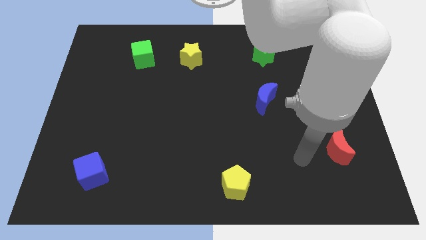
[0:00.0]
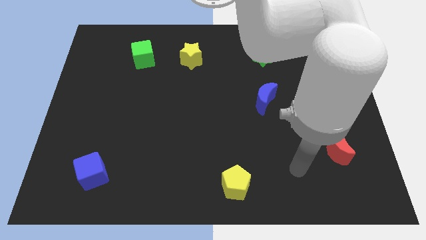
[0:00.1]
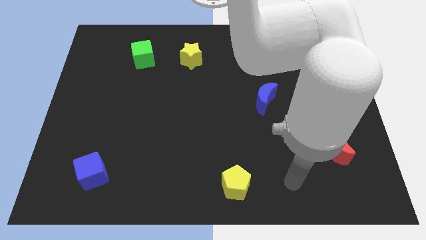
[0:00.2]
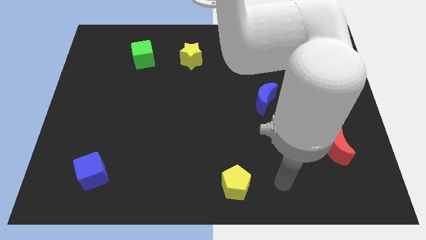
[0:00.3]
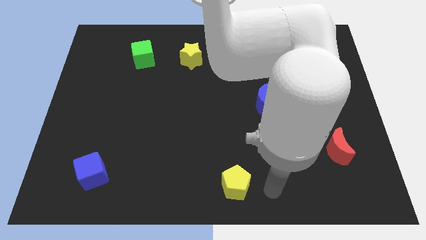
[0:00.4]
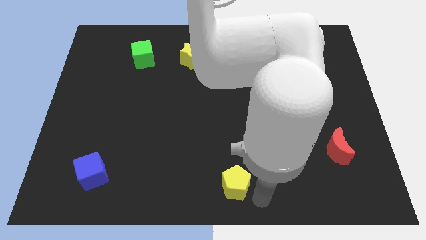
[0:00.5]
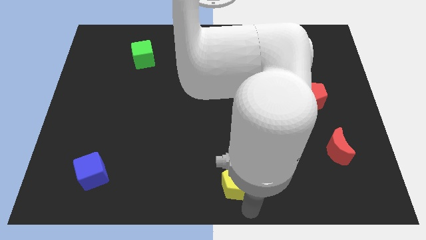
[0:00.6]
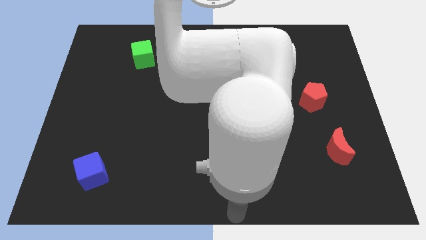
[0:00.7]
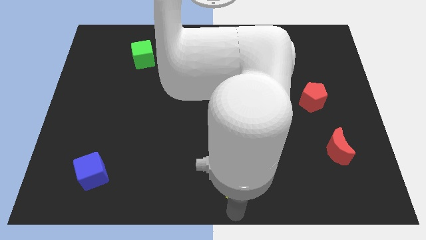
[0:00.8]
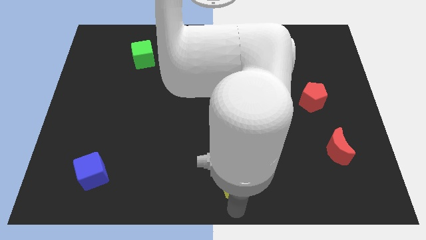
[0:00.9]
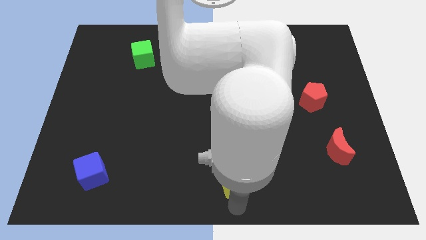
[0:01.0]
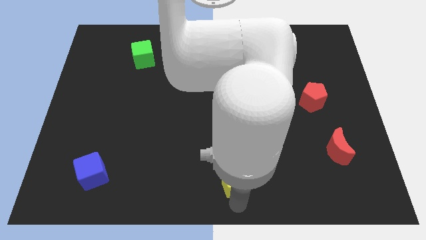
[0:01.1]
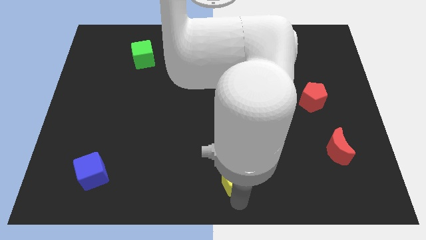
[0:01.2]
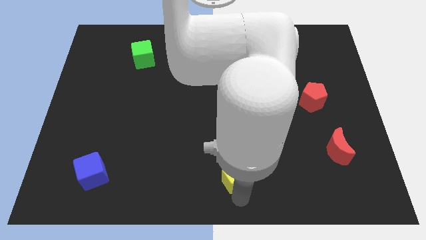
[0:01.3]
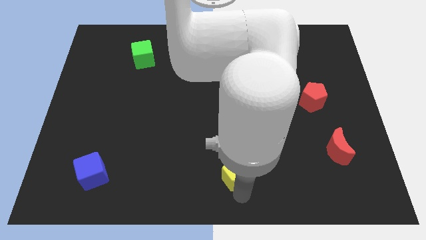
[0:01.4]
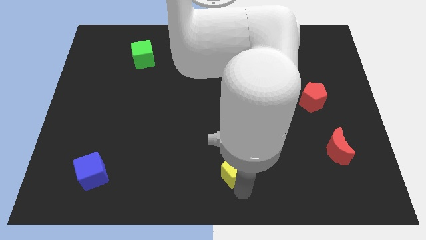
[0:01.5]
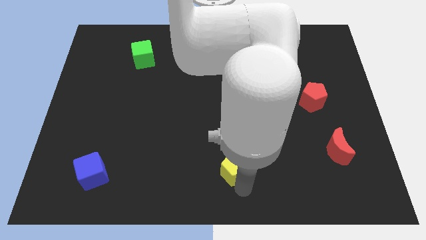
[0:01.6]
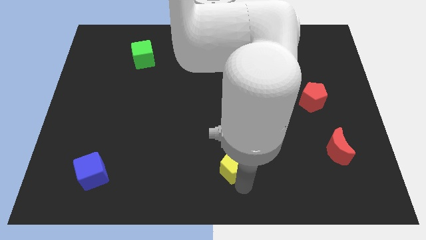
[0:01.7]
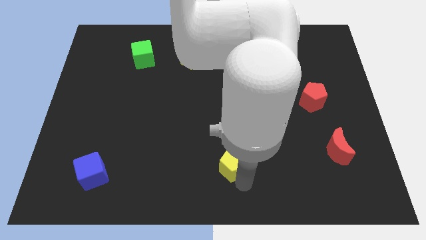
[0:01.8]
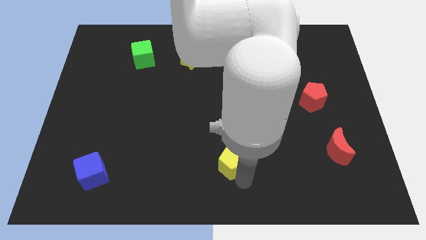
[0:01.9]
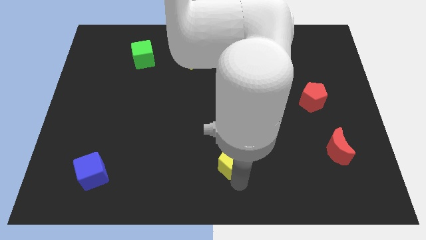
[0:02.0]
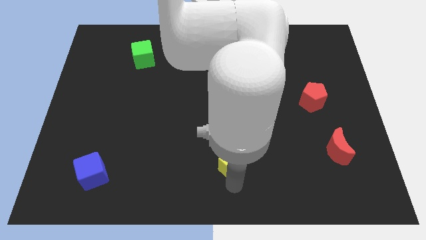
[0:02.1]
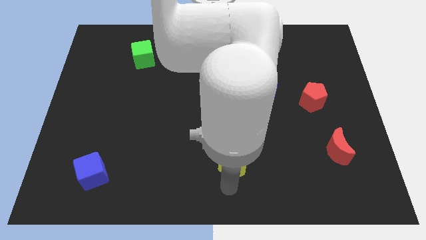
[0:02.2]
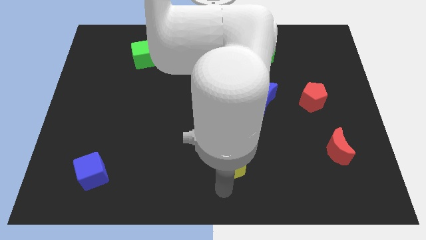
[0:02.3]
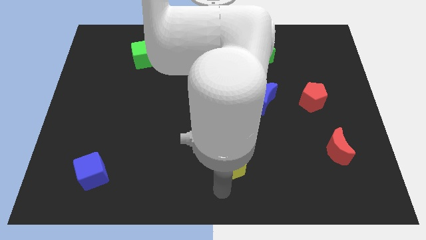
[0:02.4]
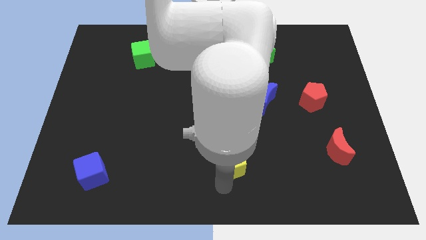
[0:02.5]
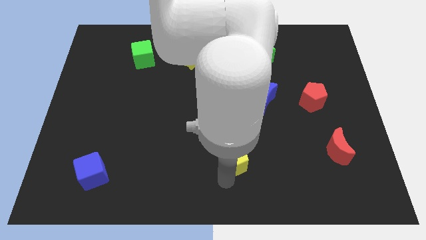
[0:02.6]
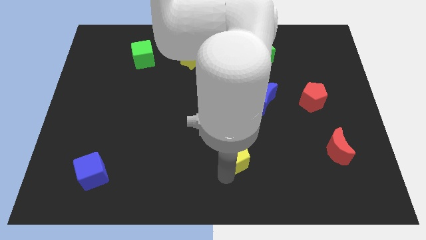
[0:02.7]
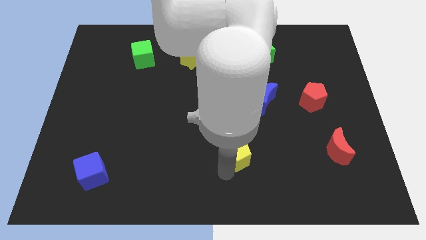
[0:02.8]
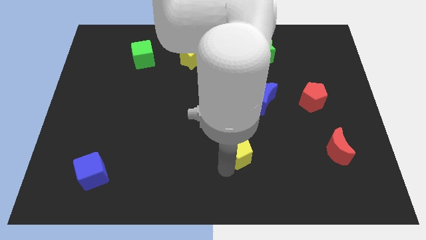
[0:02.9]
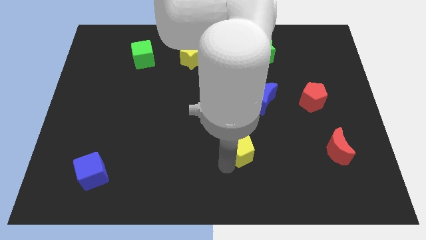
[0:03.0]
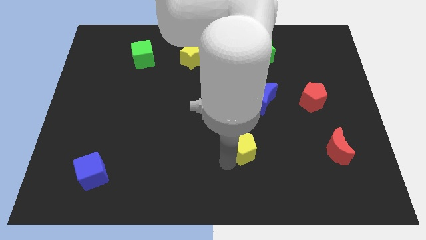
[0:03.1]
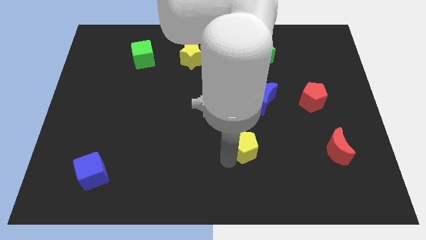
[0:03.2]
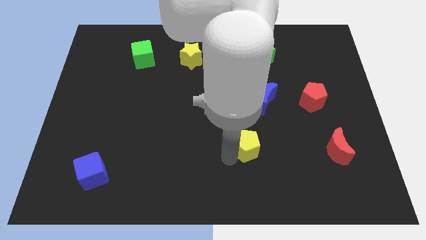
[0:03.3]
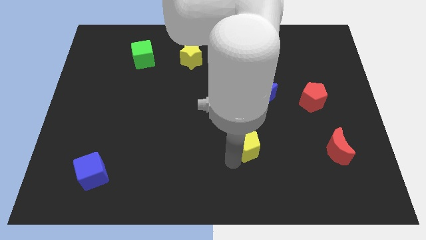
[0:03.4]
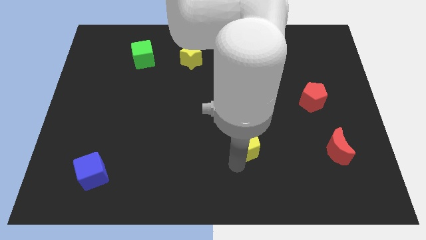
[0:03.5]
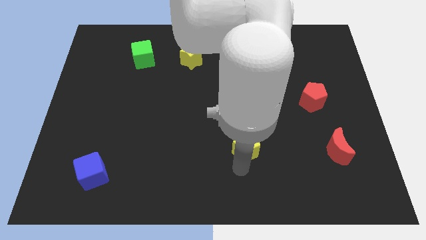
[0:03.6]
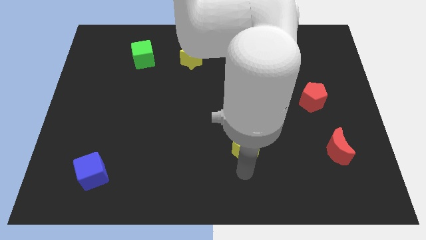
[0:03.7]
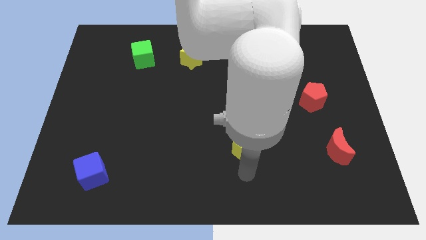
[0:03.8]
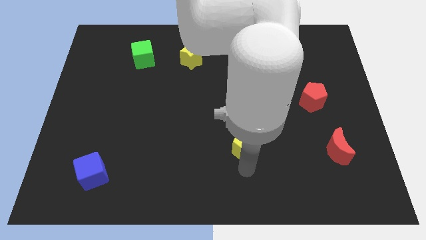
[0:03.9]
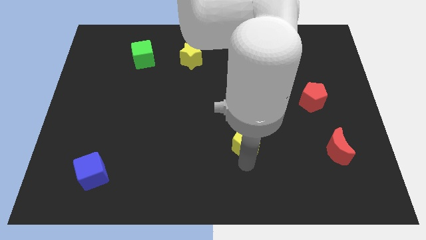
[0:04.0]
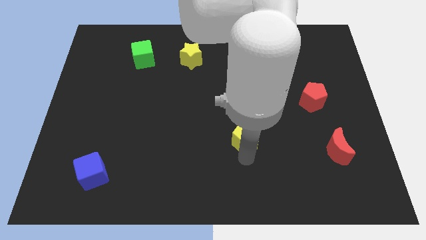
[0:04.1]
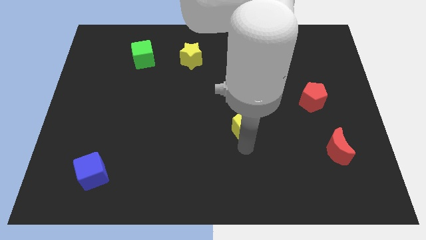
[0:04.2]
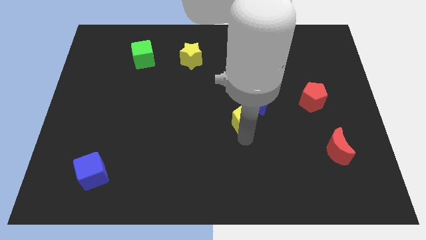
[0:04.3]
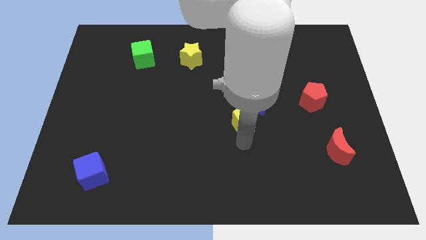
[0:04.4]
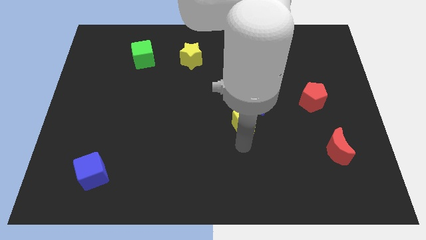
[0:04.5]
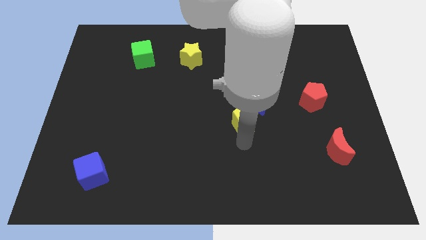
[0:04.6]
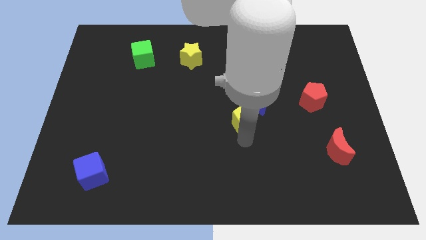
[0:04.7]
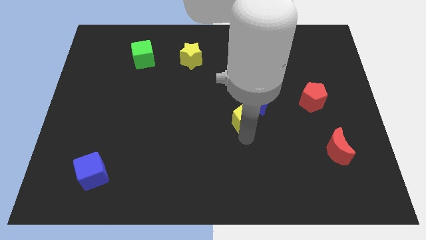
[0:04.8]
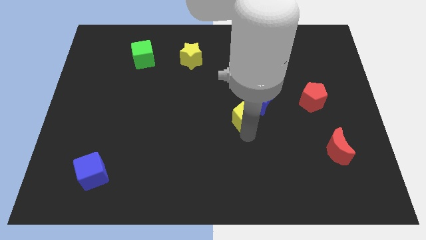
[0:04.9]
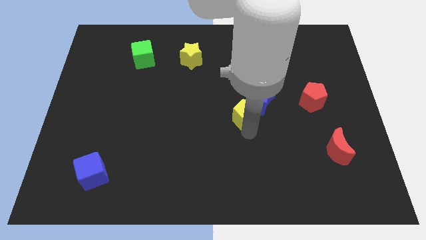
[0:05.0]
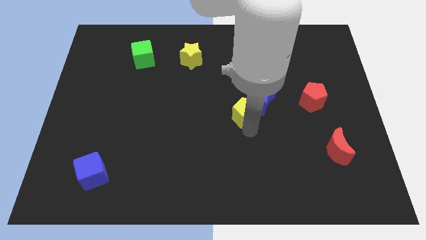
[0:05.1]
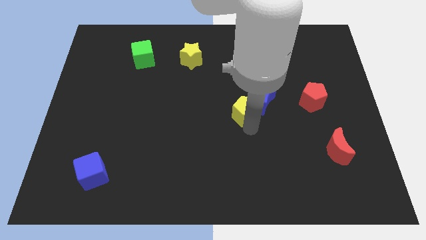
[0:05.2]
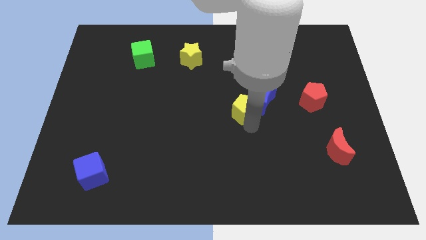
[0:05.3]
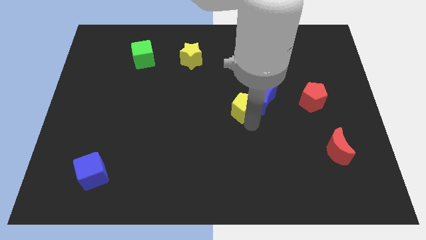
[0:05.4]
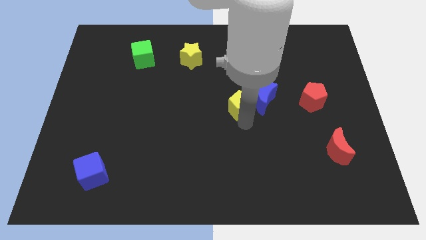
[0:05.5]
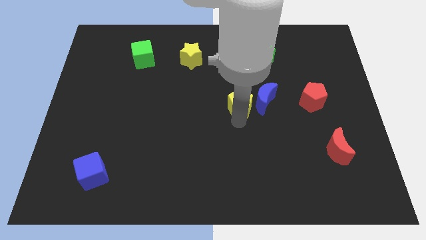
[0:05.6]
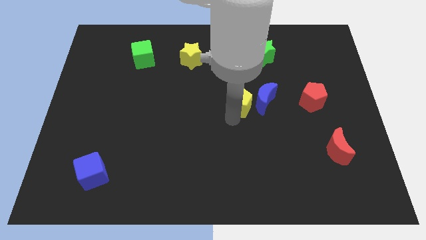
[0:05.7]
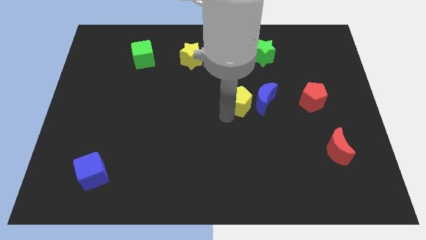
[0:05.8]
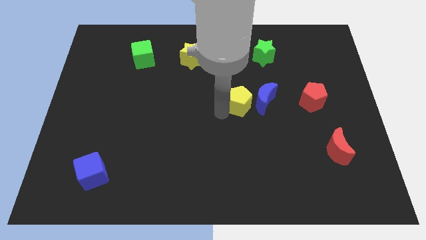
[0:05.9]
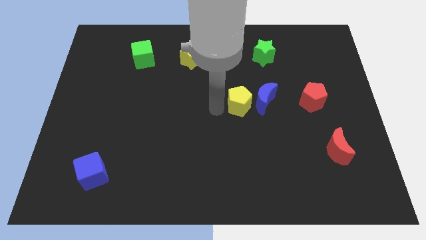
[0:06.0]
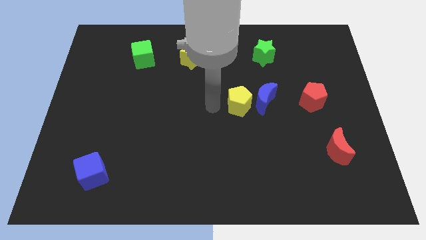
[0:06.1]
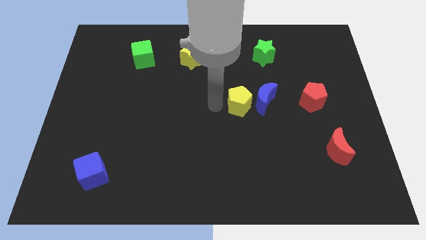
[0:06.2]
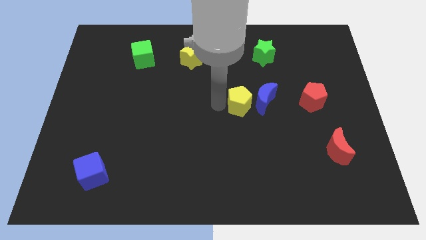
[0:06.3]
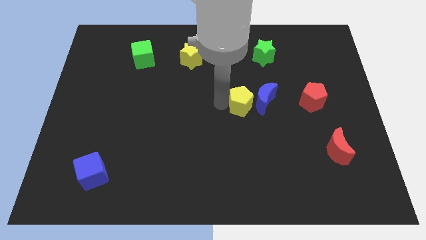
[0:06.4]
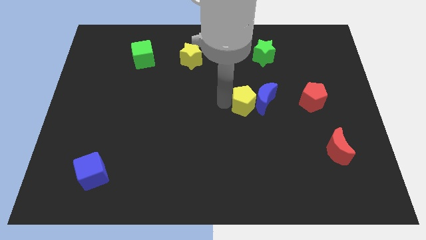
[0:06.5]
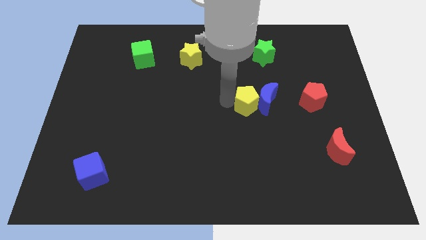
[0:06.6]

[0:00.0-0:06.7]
put the yellow pentagon to the left of the red pentagon

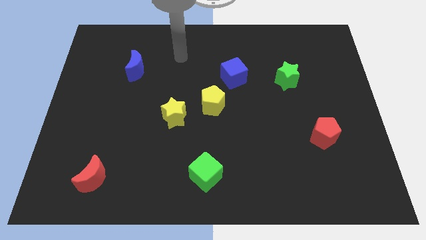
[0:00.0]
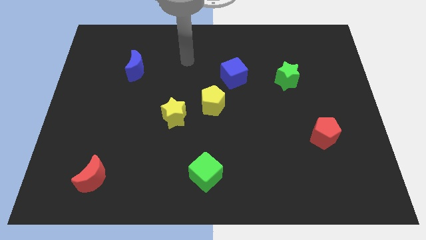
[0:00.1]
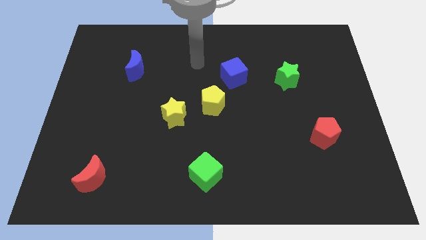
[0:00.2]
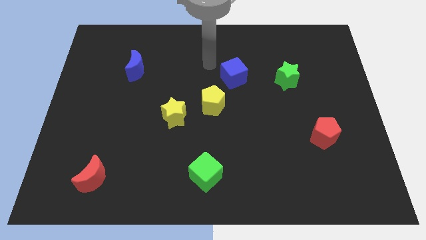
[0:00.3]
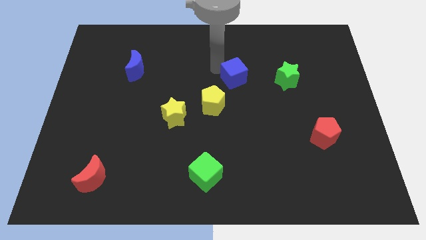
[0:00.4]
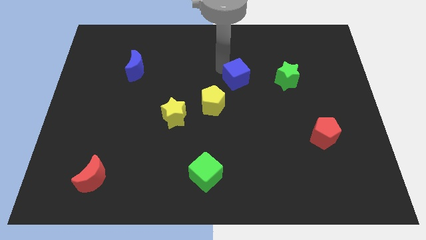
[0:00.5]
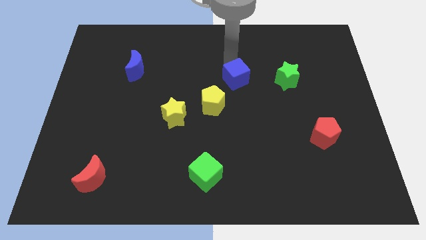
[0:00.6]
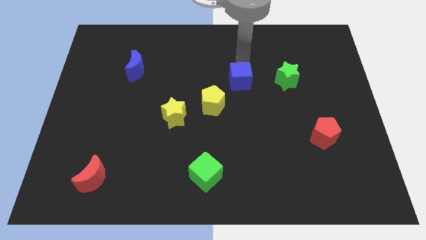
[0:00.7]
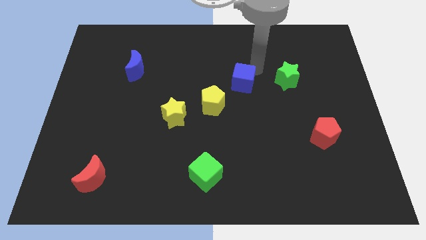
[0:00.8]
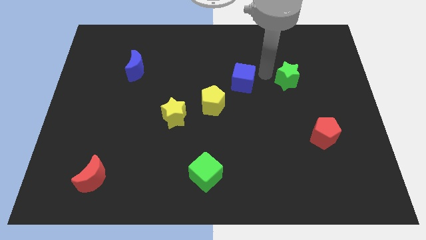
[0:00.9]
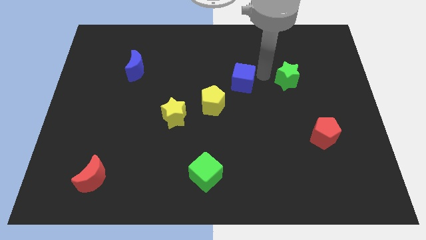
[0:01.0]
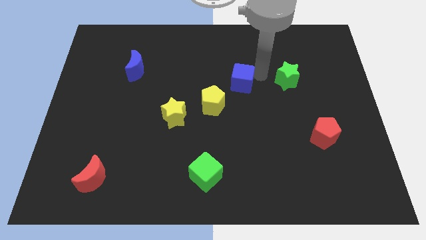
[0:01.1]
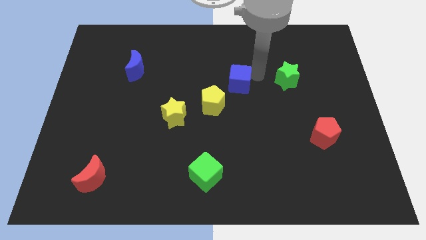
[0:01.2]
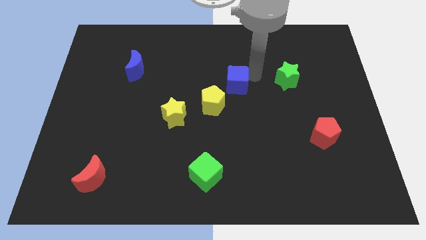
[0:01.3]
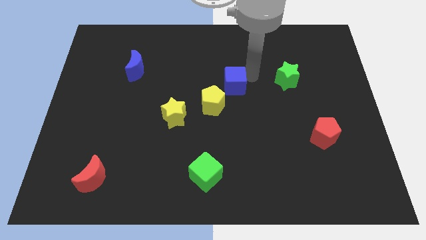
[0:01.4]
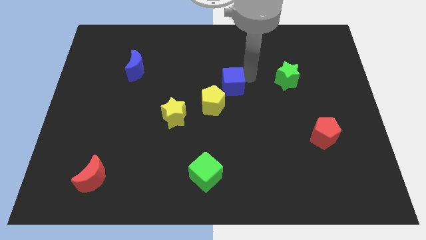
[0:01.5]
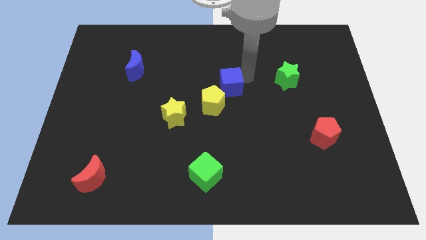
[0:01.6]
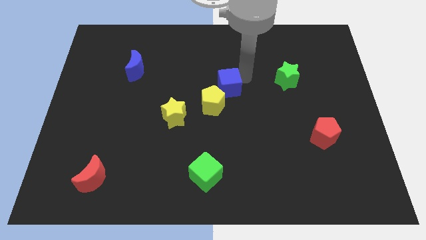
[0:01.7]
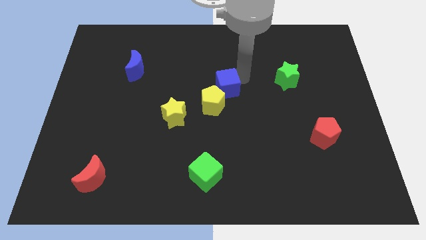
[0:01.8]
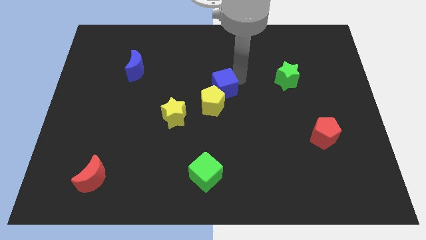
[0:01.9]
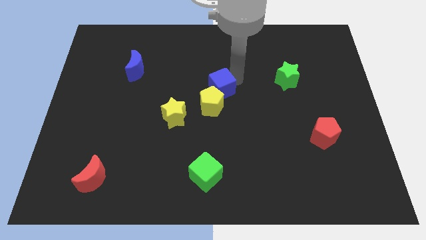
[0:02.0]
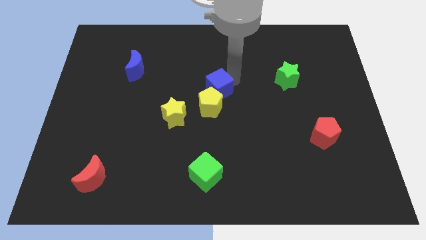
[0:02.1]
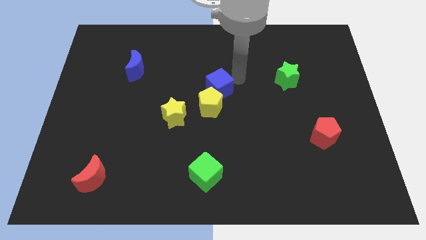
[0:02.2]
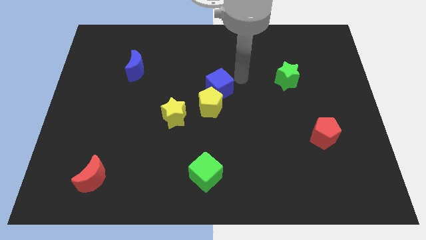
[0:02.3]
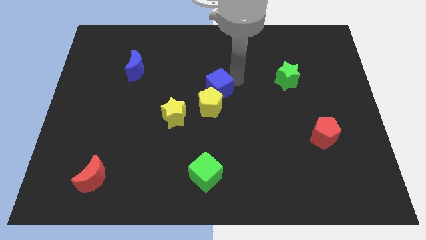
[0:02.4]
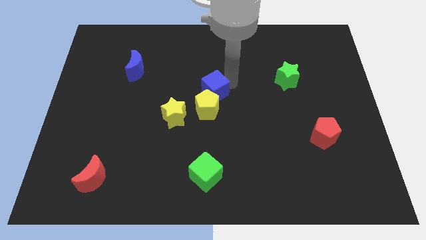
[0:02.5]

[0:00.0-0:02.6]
move the blue cube diagonally up and to the right of the yellow star
